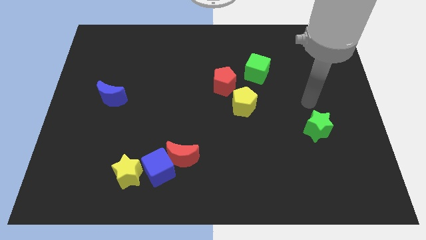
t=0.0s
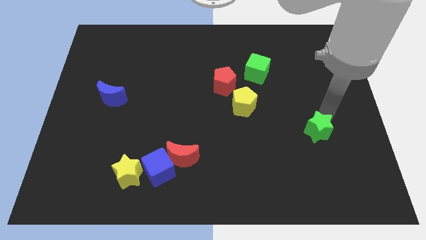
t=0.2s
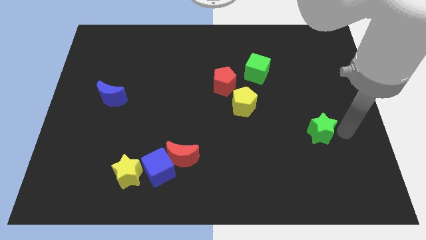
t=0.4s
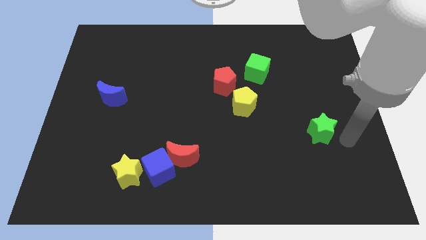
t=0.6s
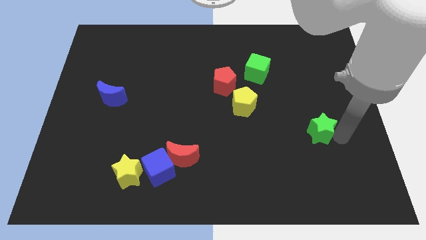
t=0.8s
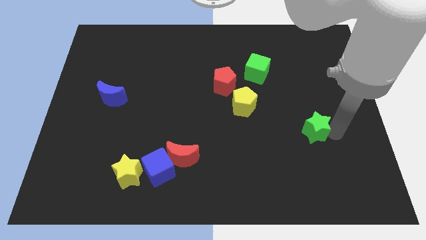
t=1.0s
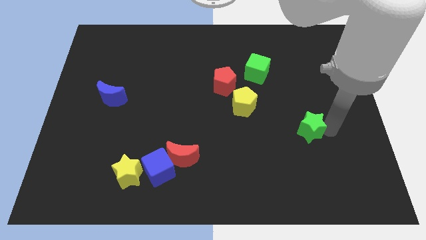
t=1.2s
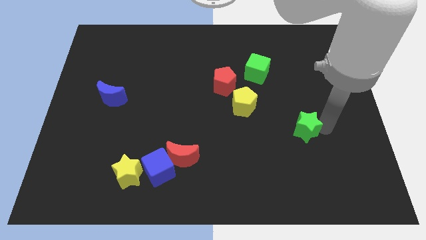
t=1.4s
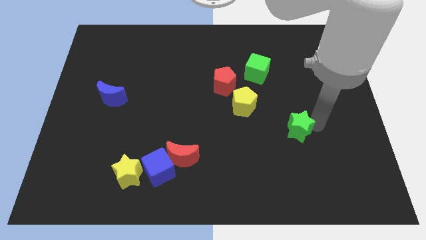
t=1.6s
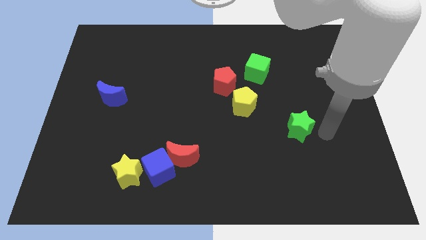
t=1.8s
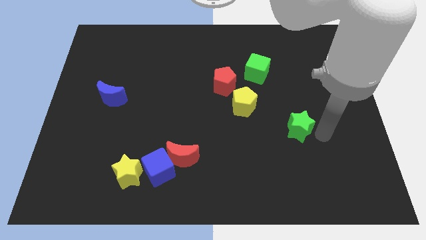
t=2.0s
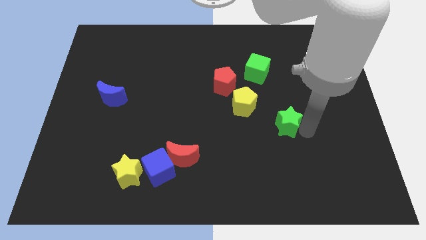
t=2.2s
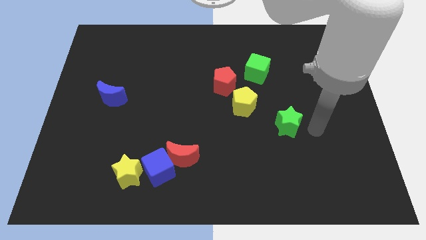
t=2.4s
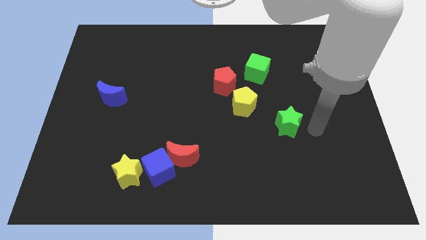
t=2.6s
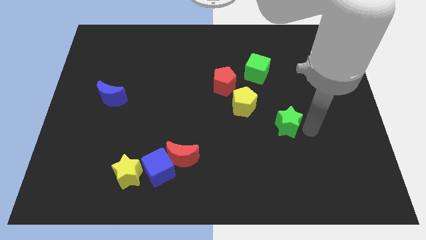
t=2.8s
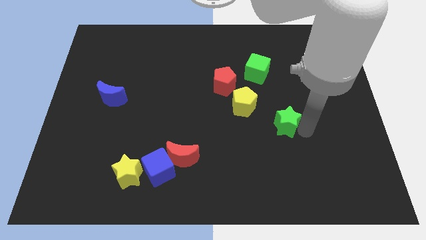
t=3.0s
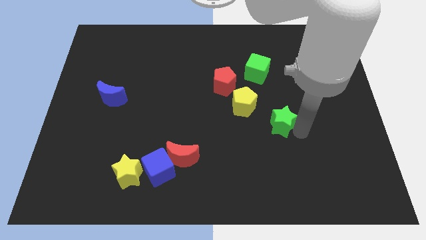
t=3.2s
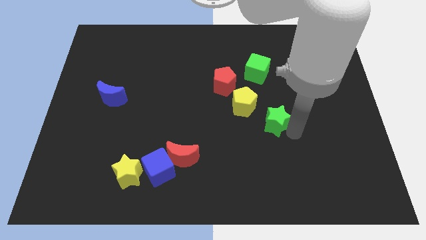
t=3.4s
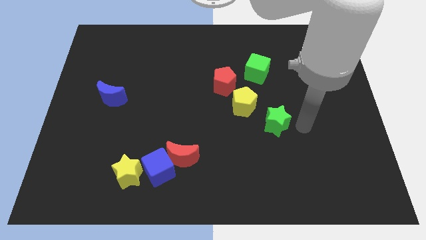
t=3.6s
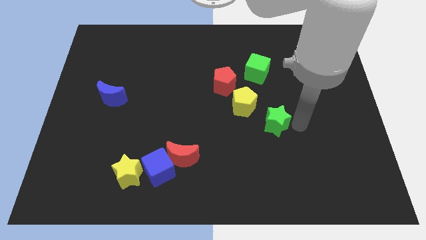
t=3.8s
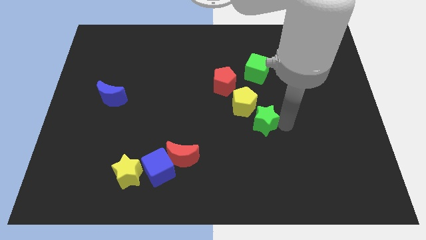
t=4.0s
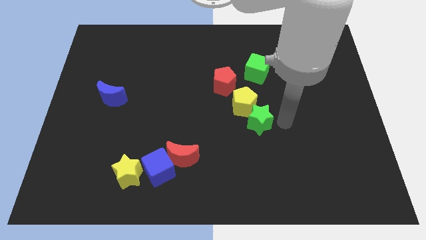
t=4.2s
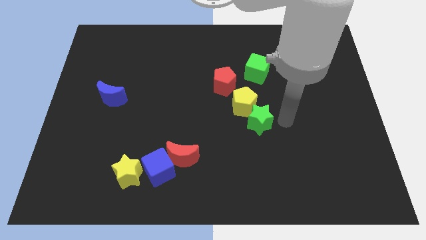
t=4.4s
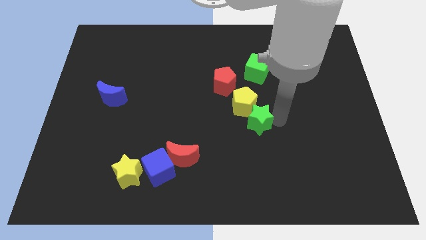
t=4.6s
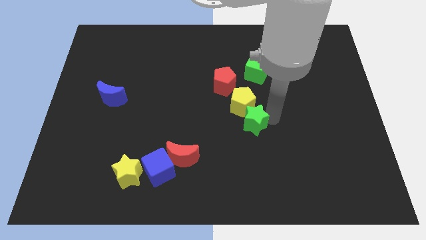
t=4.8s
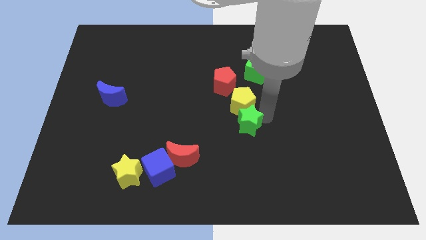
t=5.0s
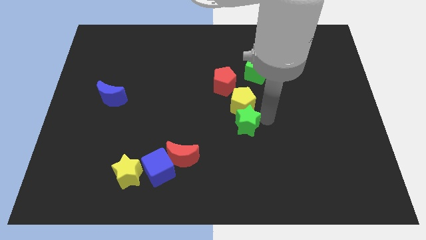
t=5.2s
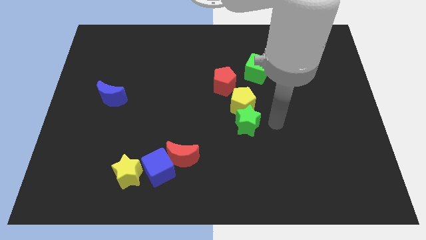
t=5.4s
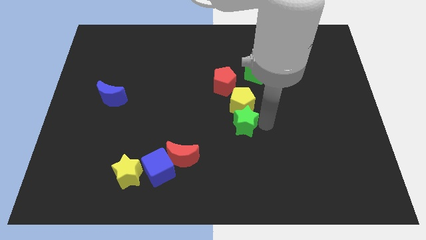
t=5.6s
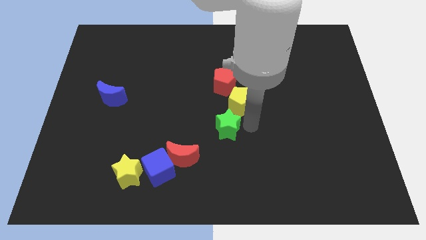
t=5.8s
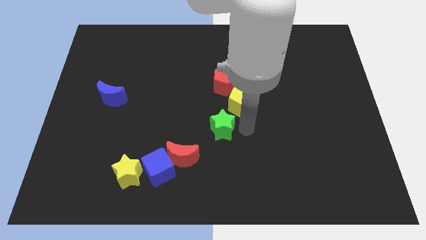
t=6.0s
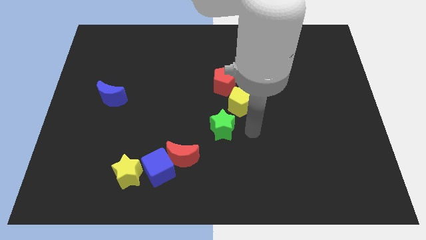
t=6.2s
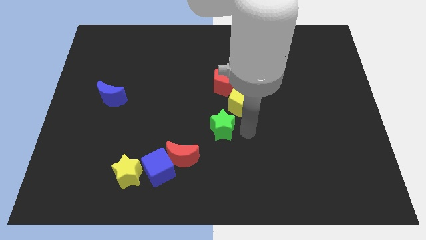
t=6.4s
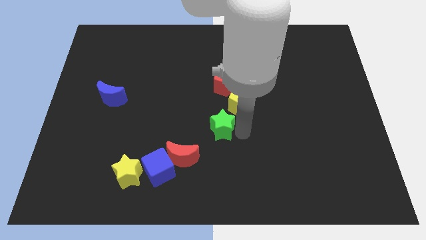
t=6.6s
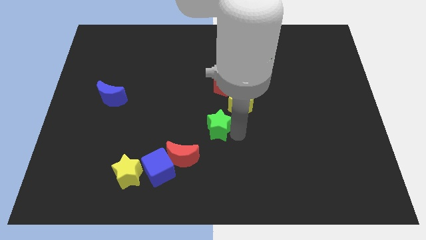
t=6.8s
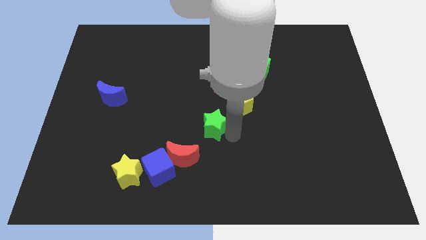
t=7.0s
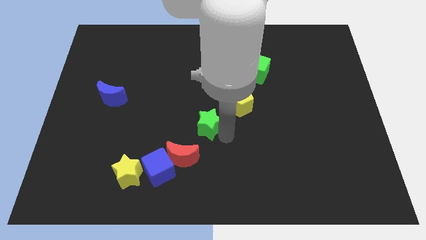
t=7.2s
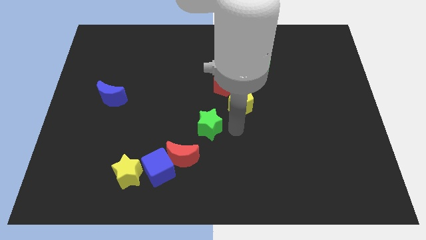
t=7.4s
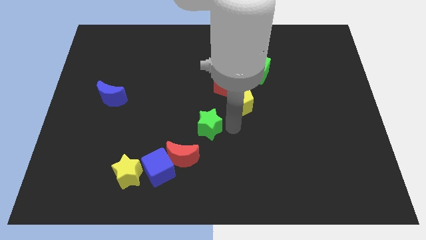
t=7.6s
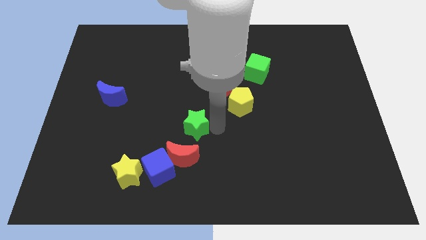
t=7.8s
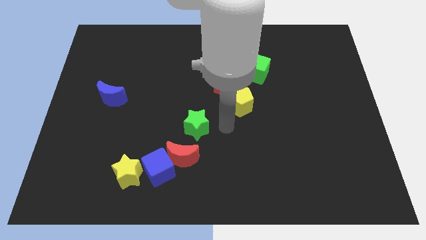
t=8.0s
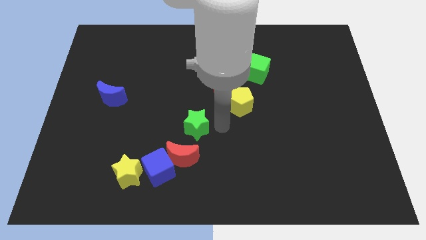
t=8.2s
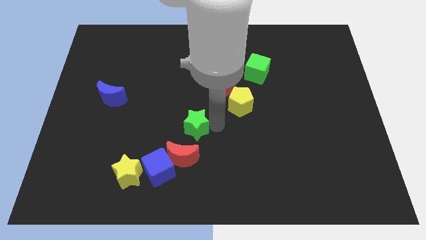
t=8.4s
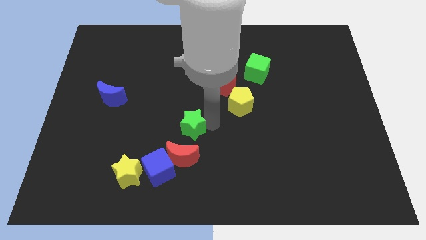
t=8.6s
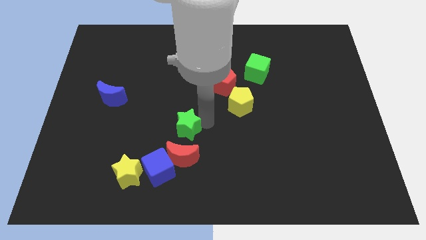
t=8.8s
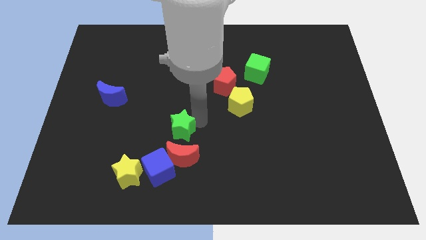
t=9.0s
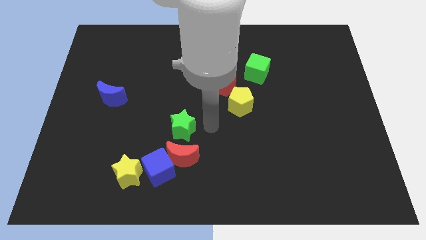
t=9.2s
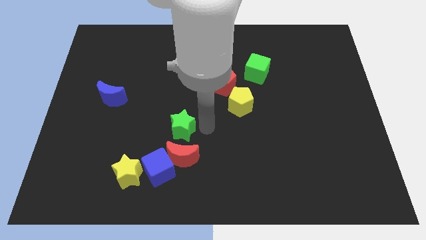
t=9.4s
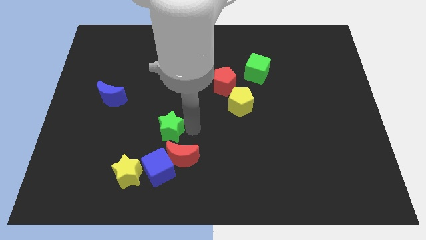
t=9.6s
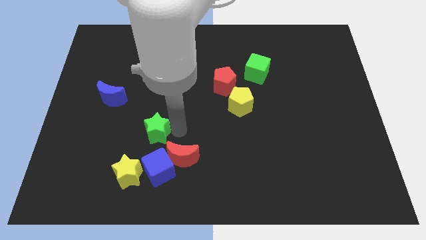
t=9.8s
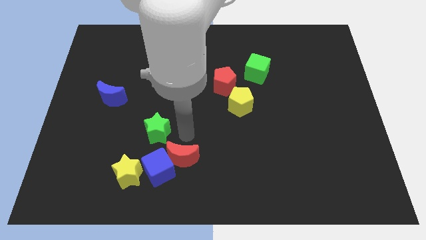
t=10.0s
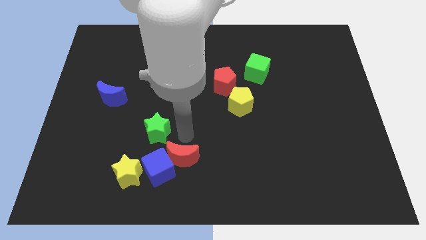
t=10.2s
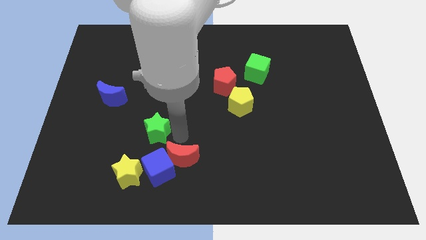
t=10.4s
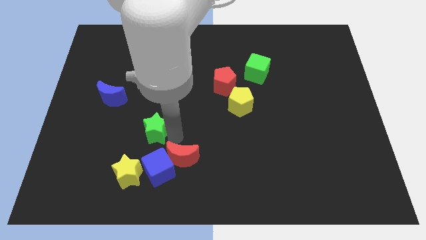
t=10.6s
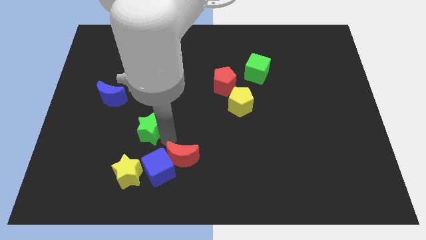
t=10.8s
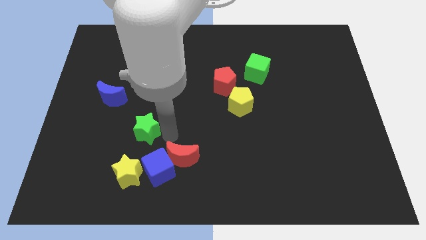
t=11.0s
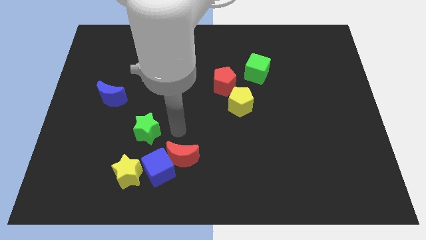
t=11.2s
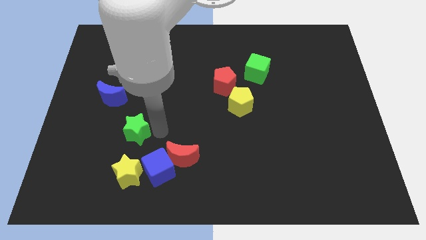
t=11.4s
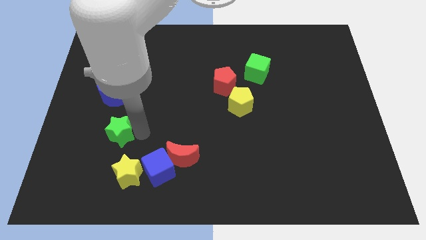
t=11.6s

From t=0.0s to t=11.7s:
push the green star to the bottom side of the blue moon

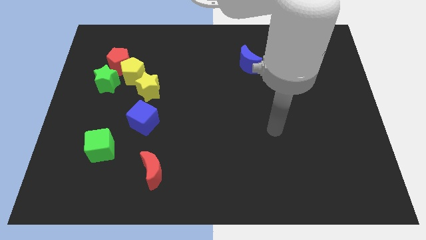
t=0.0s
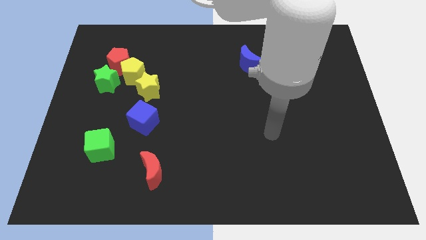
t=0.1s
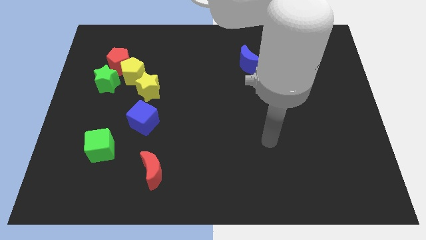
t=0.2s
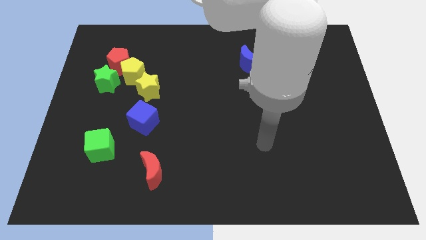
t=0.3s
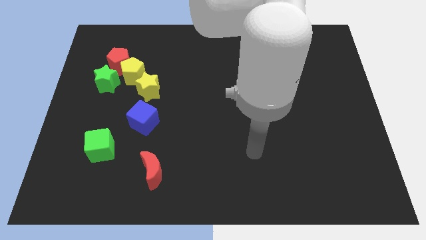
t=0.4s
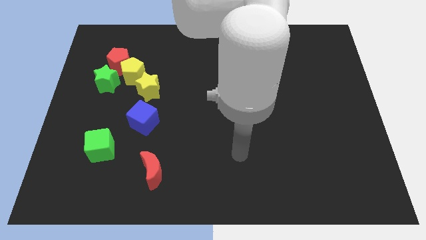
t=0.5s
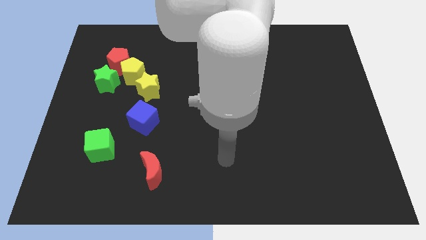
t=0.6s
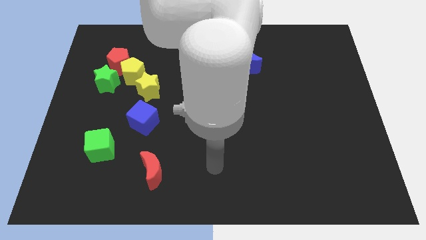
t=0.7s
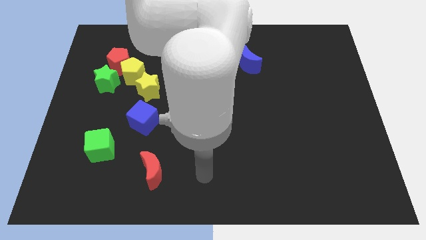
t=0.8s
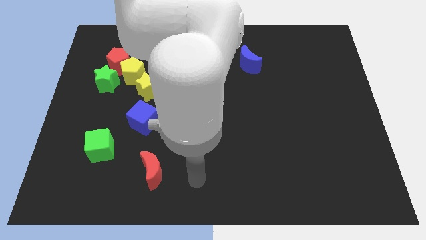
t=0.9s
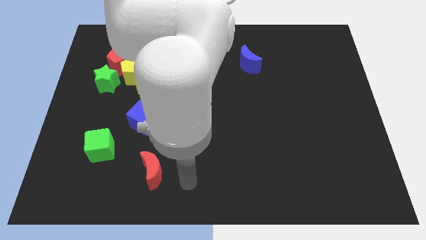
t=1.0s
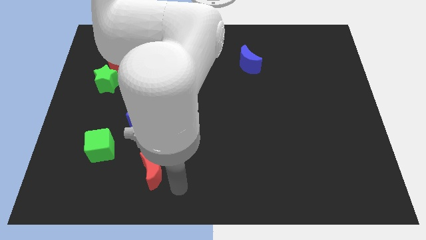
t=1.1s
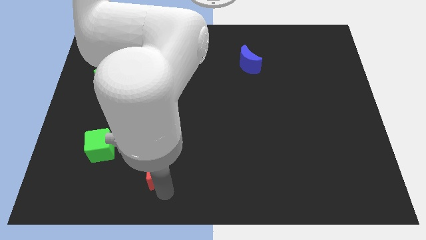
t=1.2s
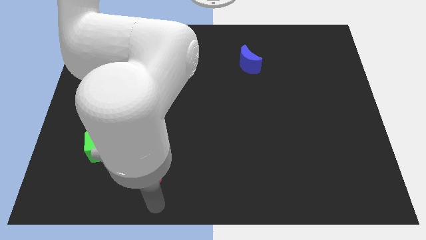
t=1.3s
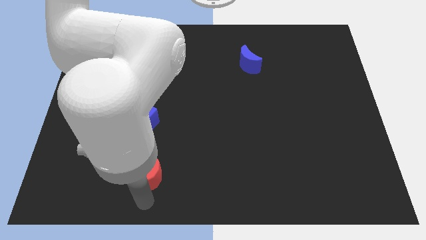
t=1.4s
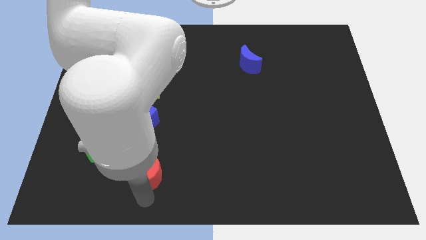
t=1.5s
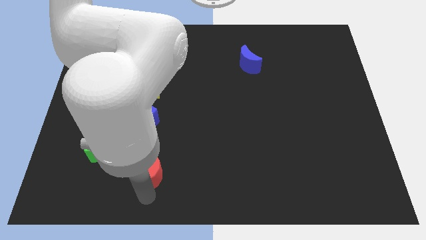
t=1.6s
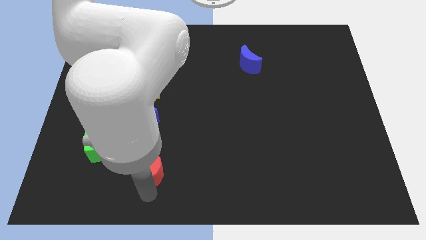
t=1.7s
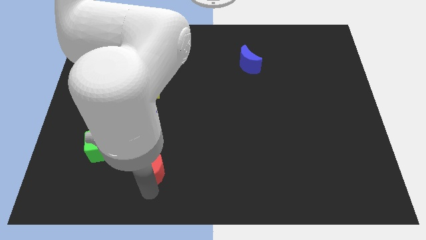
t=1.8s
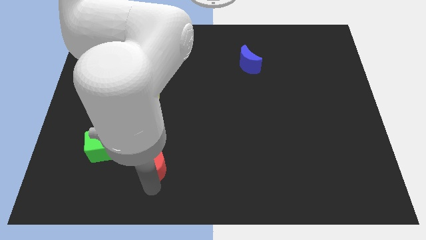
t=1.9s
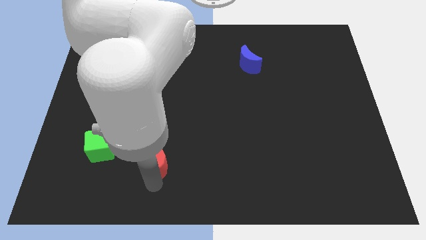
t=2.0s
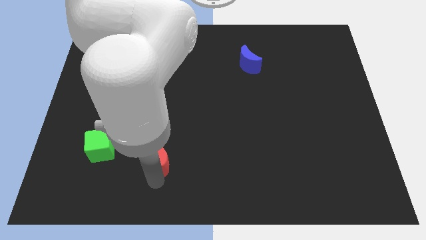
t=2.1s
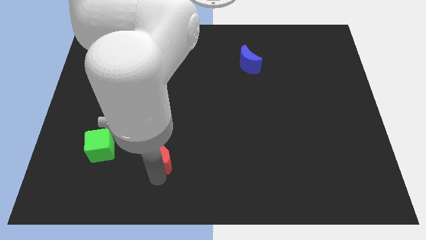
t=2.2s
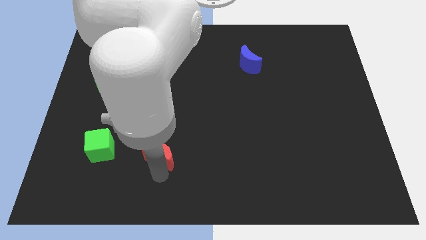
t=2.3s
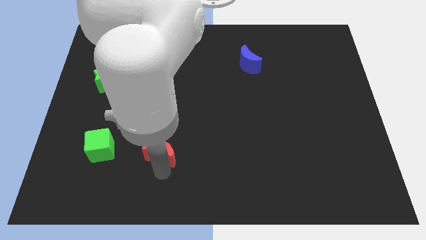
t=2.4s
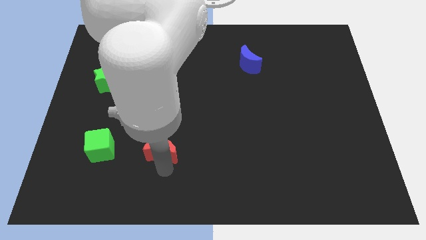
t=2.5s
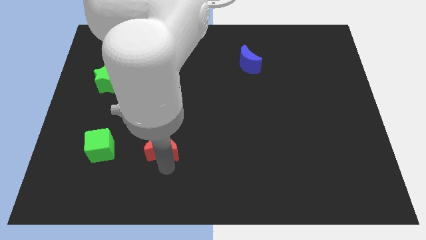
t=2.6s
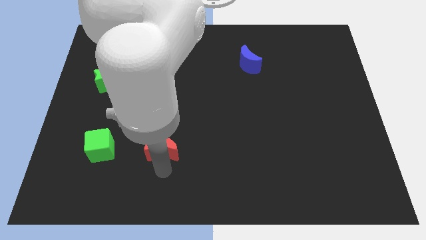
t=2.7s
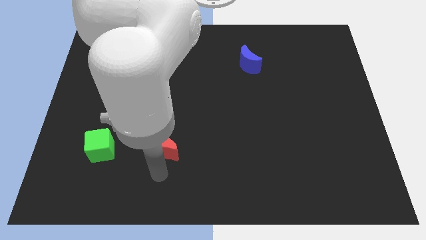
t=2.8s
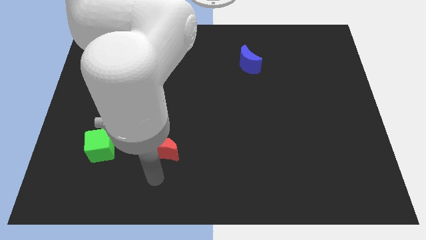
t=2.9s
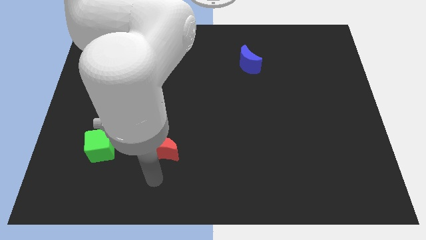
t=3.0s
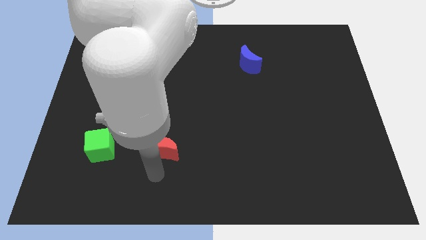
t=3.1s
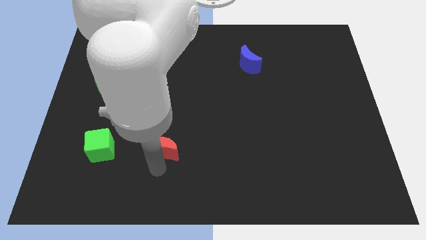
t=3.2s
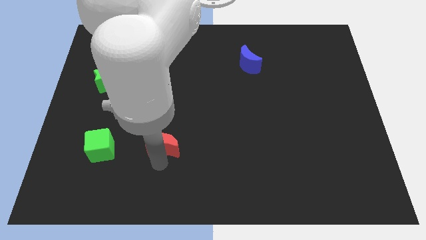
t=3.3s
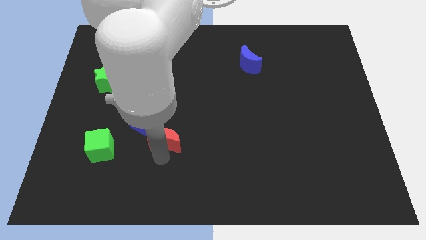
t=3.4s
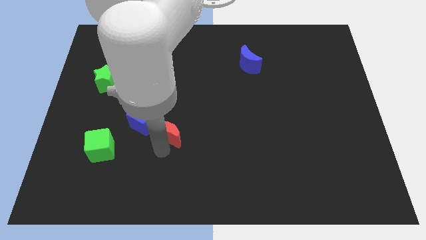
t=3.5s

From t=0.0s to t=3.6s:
slide the red moon to the right of the blue cube
